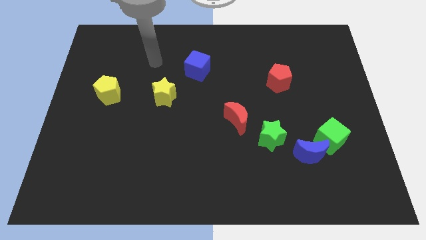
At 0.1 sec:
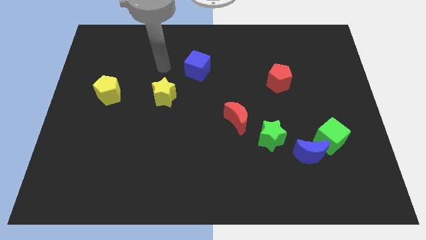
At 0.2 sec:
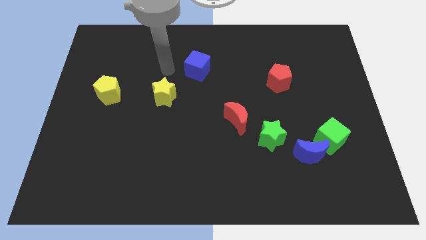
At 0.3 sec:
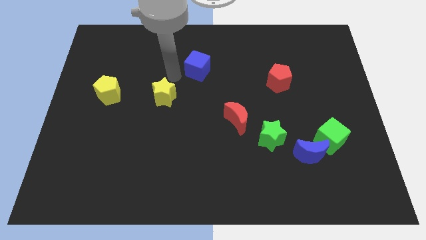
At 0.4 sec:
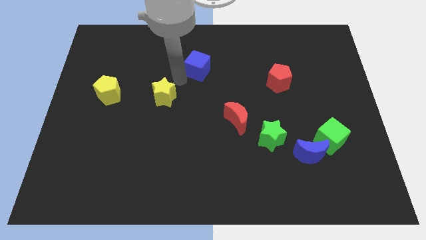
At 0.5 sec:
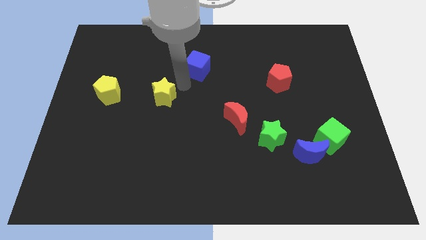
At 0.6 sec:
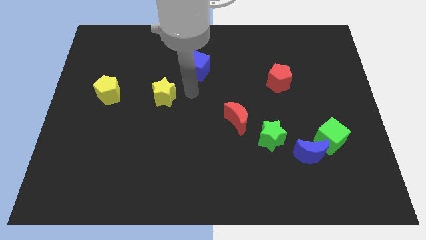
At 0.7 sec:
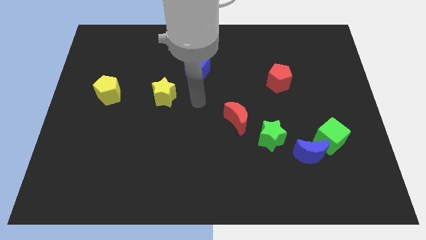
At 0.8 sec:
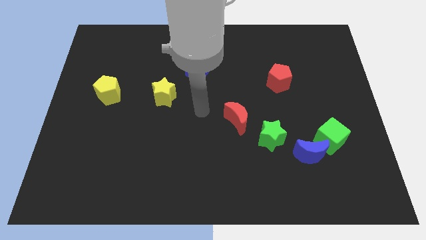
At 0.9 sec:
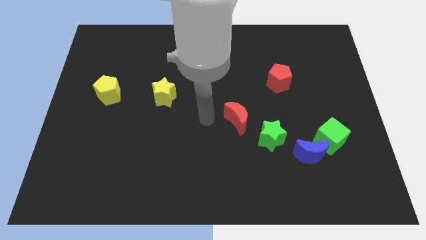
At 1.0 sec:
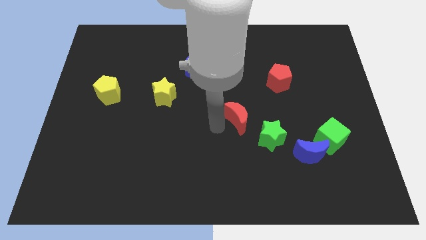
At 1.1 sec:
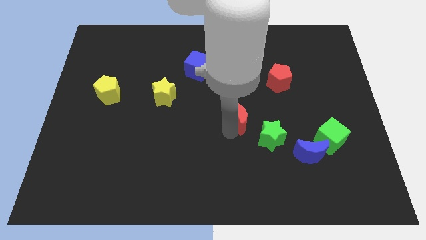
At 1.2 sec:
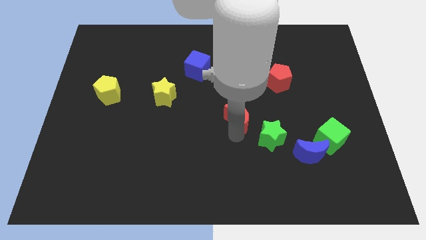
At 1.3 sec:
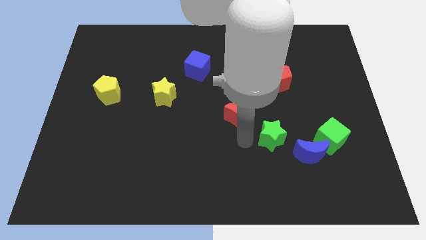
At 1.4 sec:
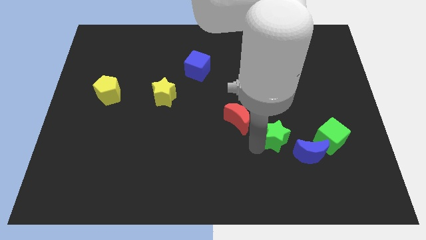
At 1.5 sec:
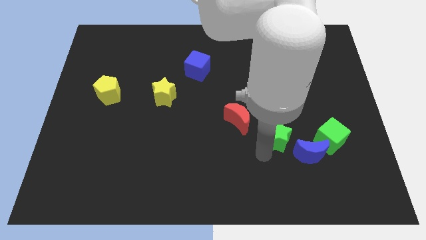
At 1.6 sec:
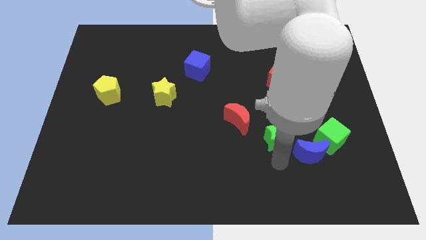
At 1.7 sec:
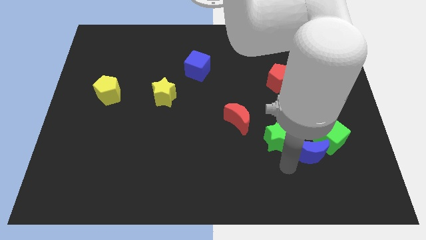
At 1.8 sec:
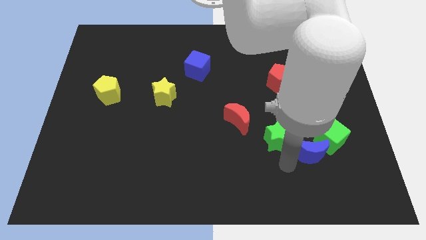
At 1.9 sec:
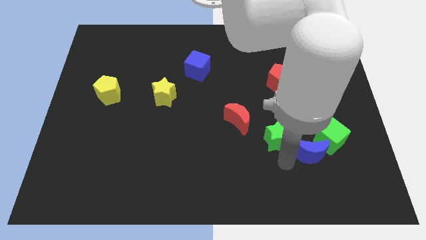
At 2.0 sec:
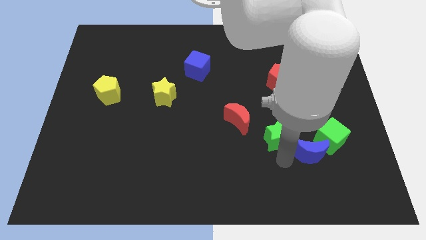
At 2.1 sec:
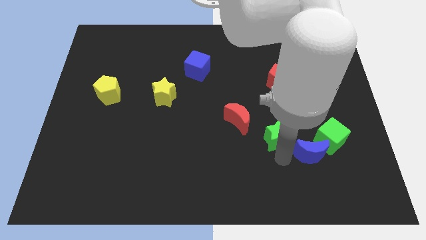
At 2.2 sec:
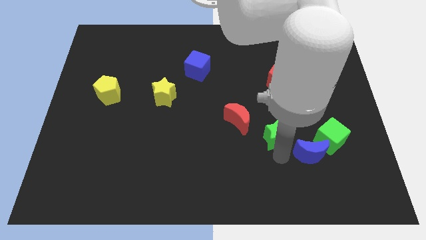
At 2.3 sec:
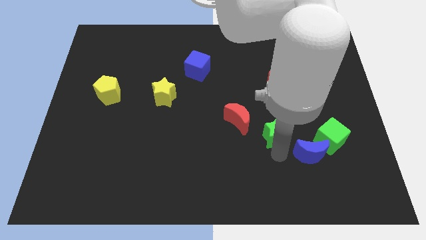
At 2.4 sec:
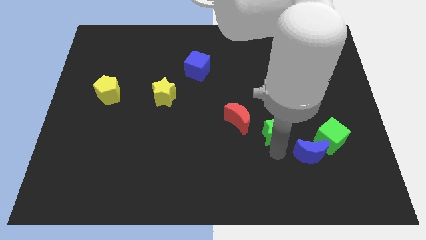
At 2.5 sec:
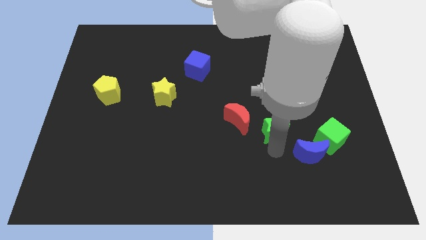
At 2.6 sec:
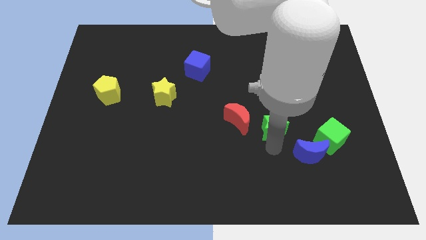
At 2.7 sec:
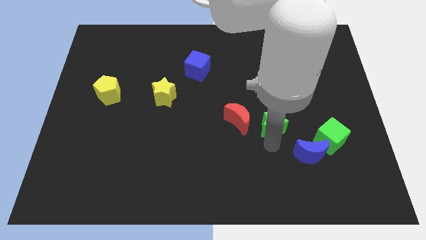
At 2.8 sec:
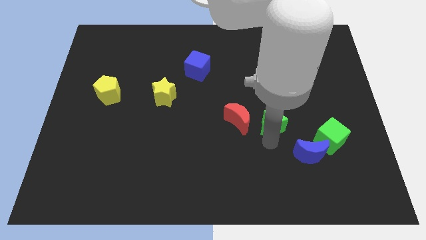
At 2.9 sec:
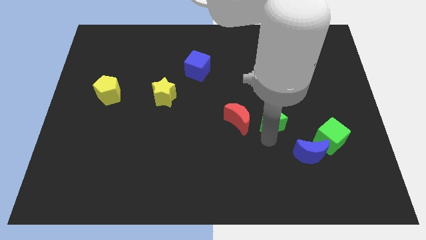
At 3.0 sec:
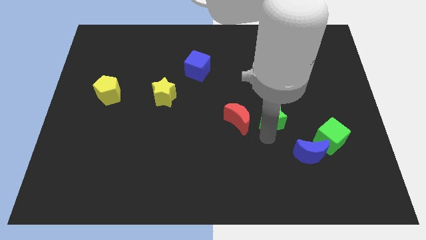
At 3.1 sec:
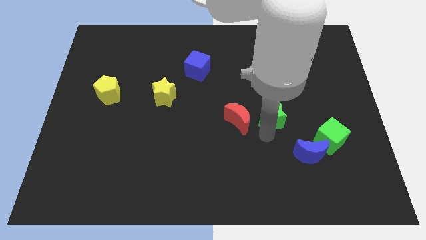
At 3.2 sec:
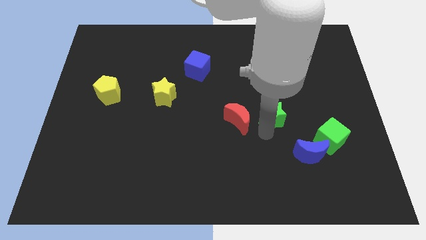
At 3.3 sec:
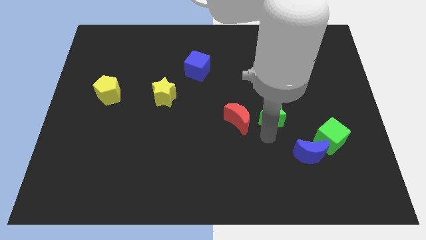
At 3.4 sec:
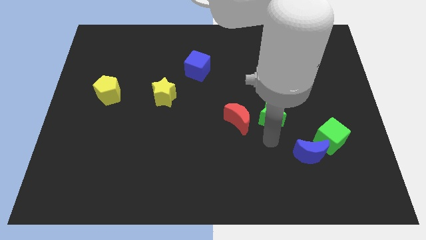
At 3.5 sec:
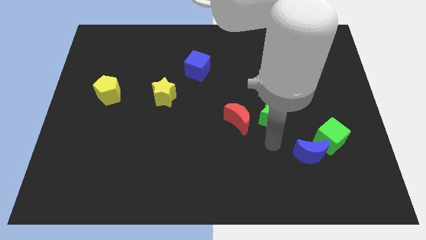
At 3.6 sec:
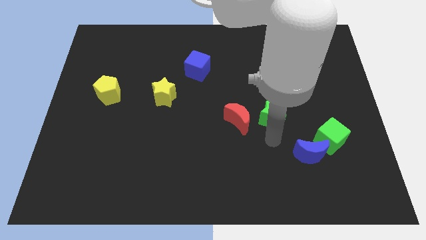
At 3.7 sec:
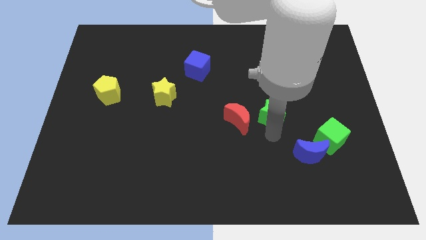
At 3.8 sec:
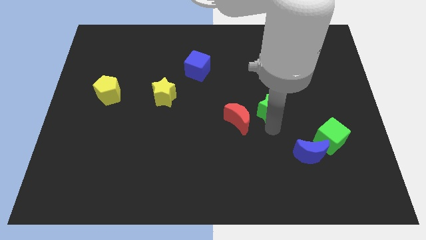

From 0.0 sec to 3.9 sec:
slightly move the green star up

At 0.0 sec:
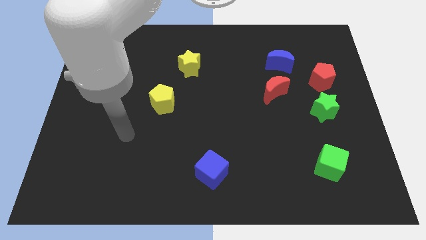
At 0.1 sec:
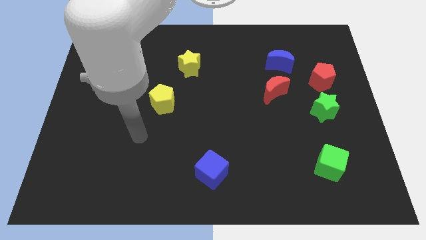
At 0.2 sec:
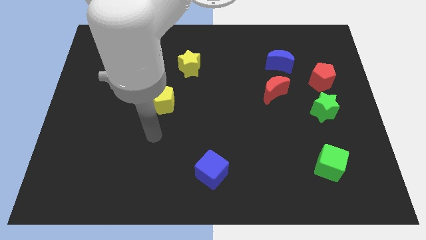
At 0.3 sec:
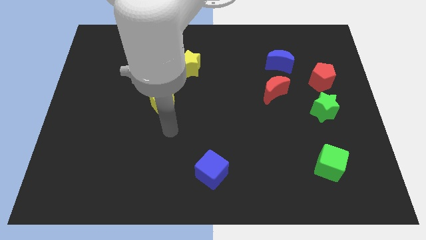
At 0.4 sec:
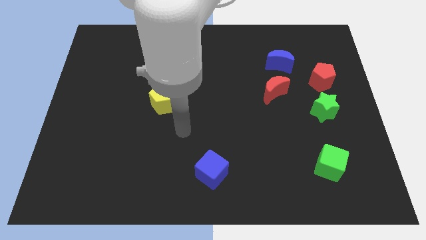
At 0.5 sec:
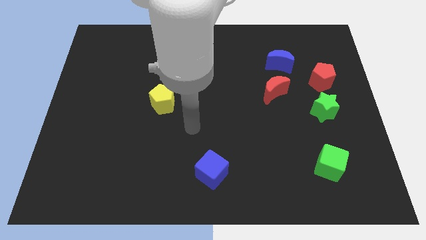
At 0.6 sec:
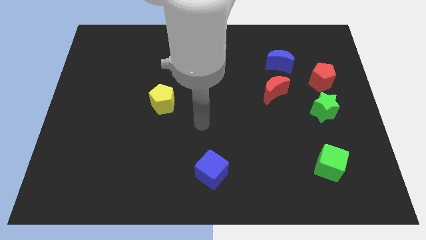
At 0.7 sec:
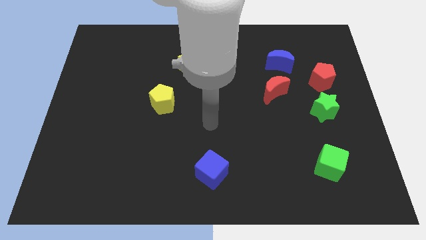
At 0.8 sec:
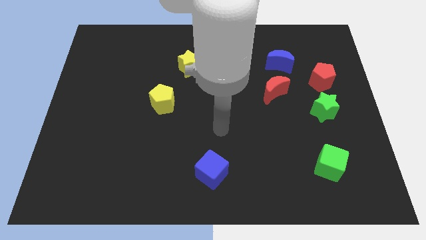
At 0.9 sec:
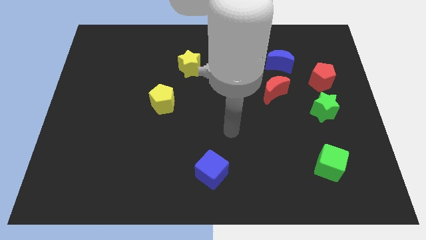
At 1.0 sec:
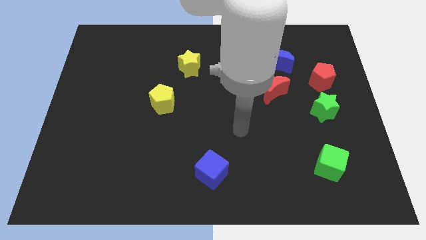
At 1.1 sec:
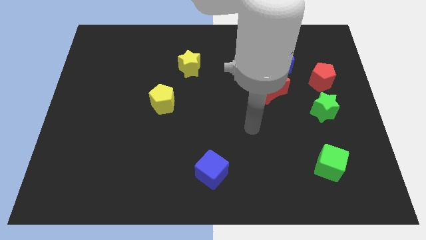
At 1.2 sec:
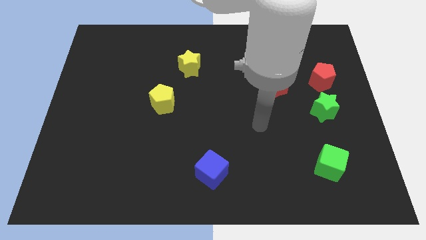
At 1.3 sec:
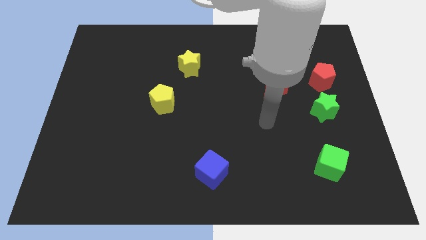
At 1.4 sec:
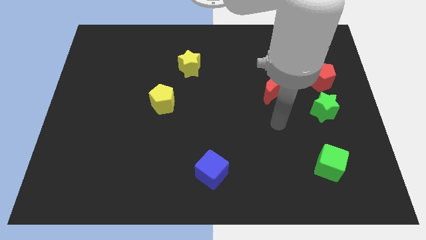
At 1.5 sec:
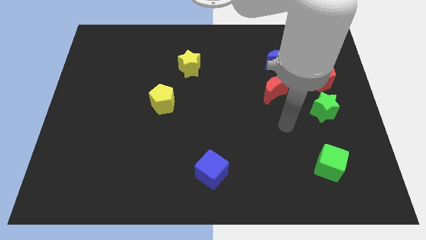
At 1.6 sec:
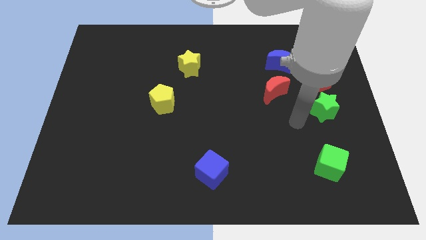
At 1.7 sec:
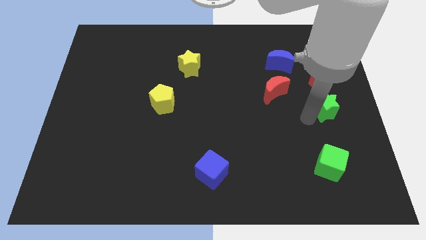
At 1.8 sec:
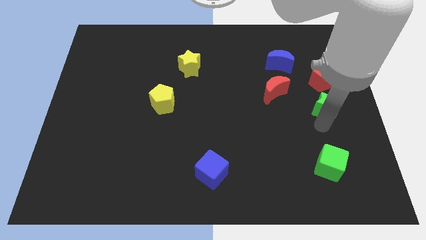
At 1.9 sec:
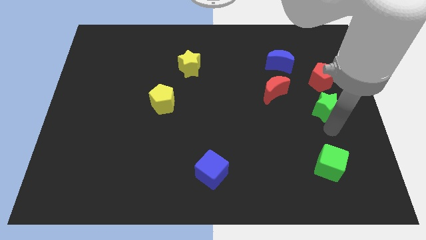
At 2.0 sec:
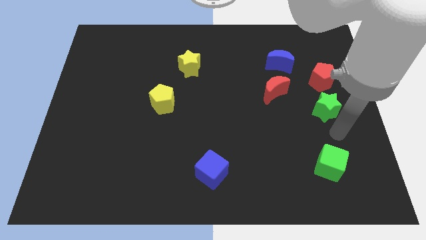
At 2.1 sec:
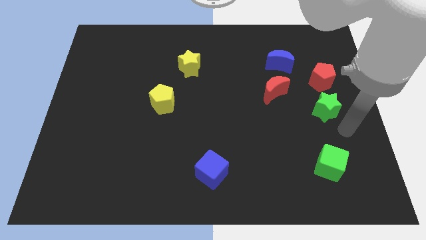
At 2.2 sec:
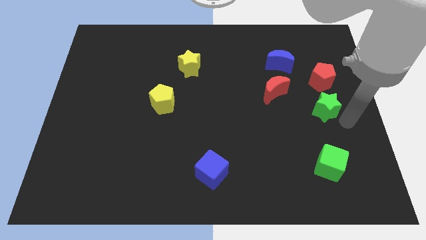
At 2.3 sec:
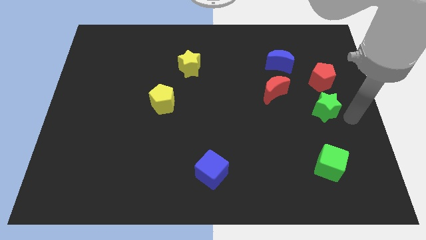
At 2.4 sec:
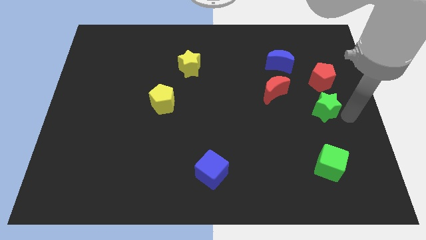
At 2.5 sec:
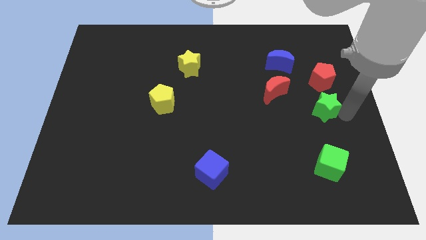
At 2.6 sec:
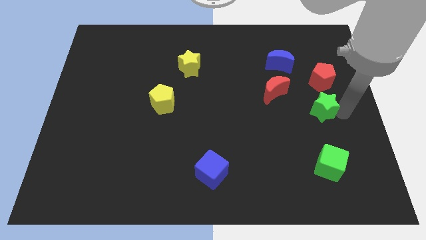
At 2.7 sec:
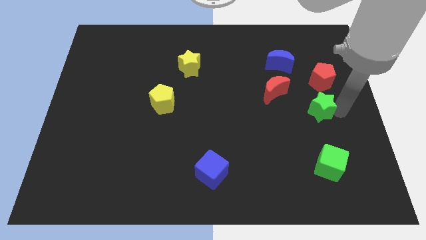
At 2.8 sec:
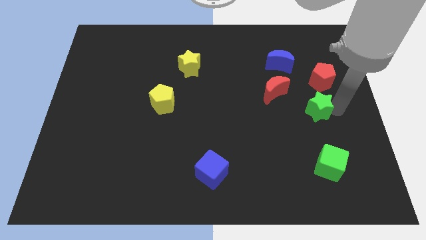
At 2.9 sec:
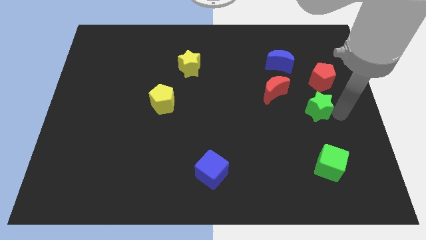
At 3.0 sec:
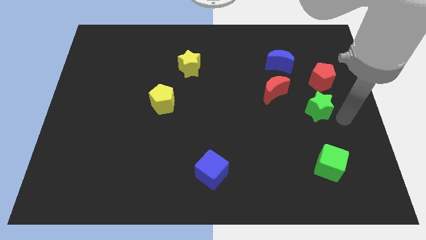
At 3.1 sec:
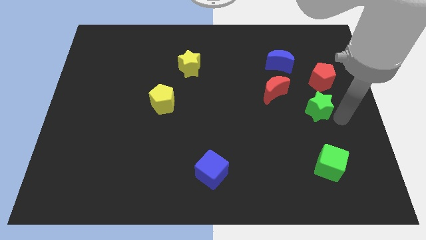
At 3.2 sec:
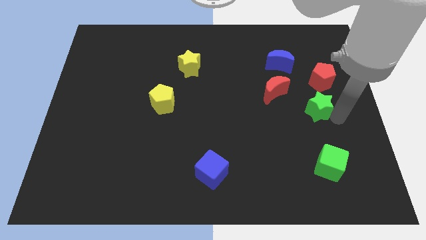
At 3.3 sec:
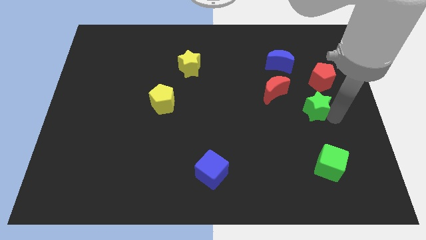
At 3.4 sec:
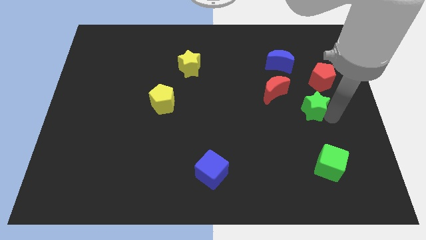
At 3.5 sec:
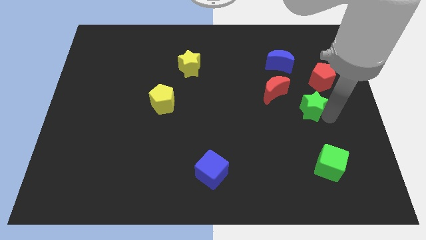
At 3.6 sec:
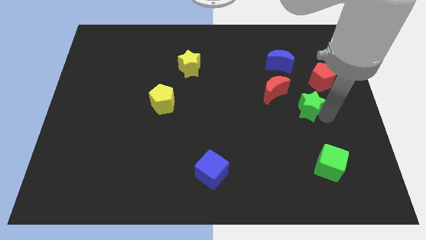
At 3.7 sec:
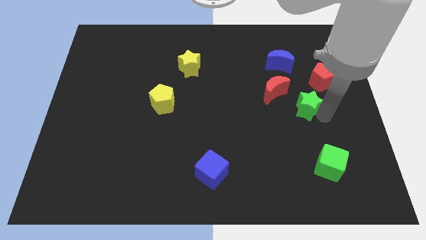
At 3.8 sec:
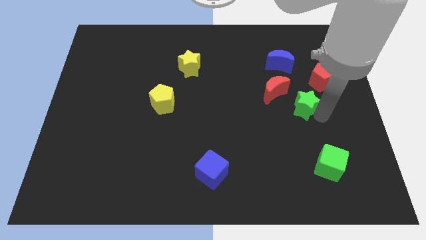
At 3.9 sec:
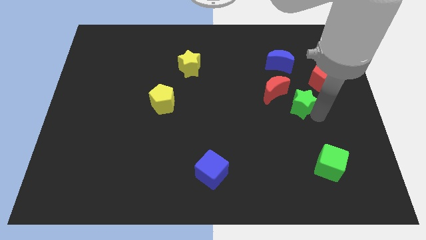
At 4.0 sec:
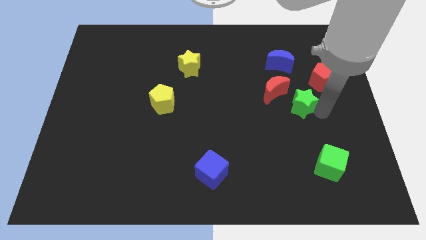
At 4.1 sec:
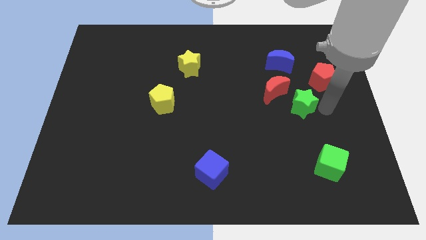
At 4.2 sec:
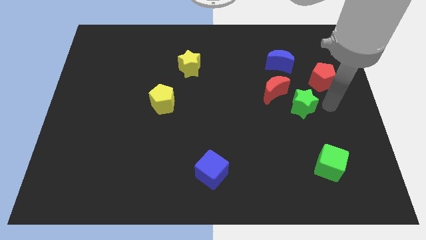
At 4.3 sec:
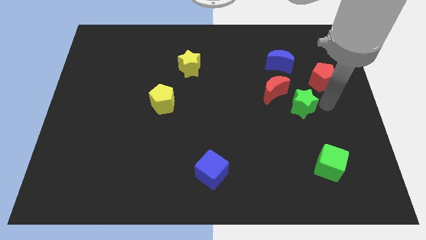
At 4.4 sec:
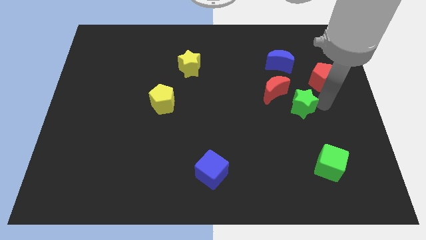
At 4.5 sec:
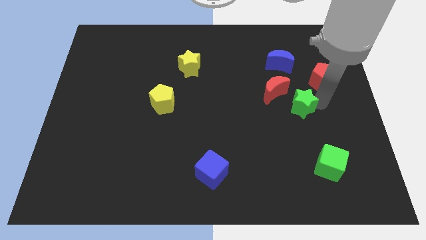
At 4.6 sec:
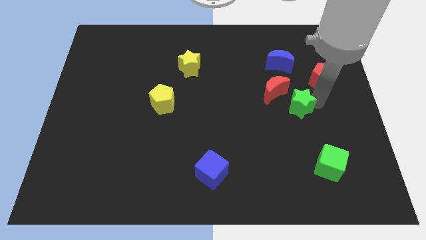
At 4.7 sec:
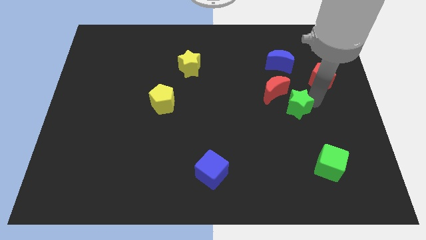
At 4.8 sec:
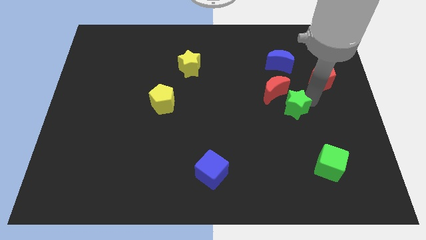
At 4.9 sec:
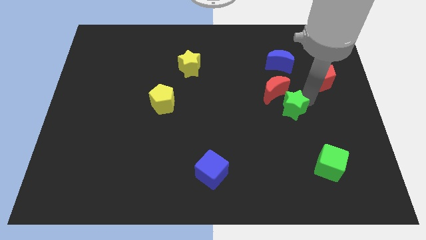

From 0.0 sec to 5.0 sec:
slide the green star somewhat left
